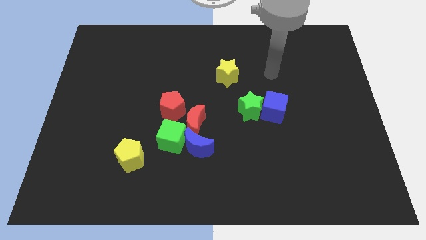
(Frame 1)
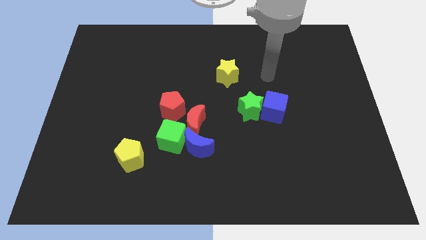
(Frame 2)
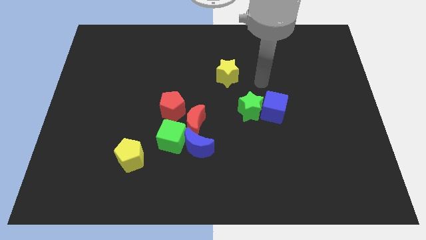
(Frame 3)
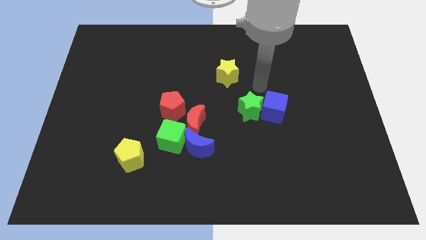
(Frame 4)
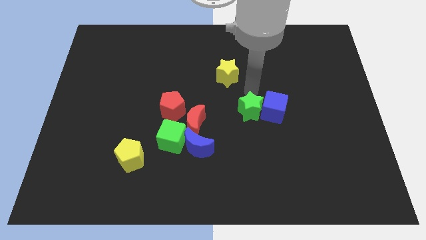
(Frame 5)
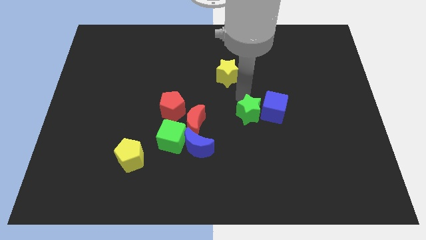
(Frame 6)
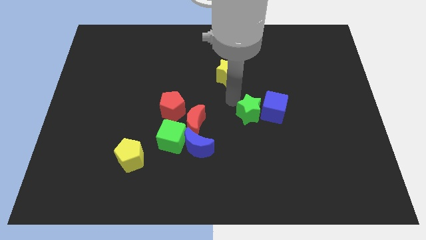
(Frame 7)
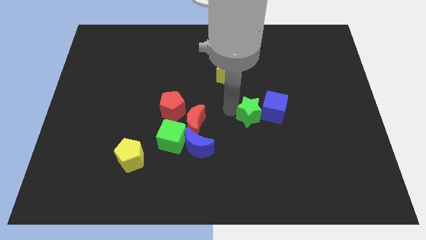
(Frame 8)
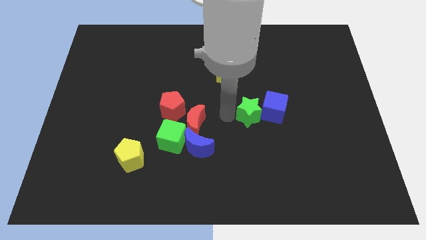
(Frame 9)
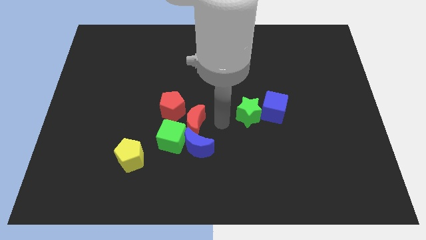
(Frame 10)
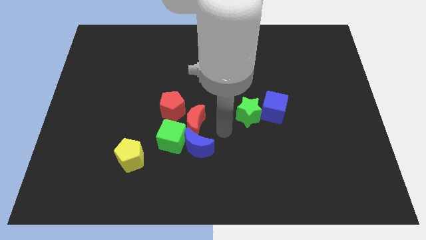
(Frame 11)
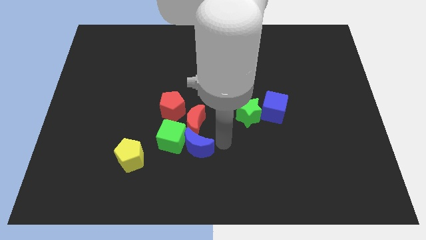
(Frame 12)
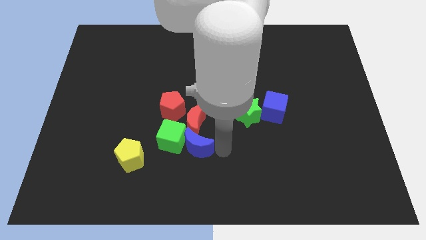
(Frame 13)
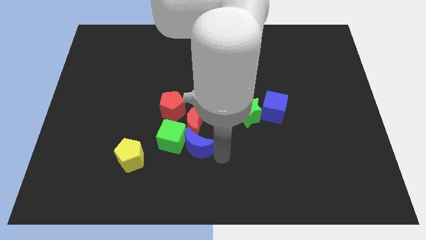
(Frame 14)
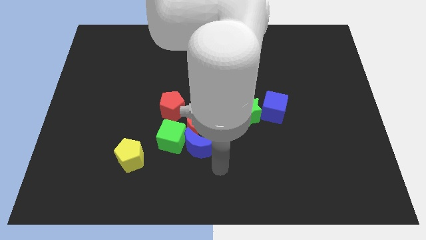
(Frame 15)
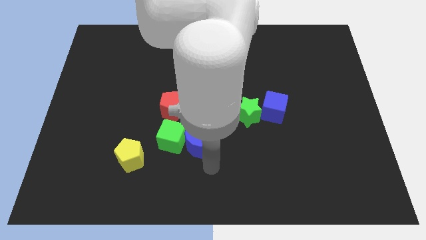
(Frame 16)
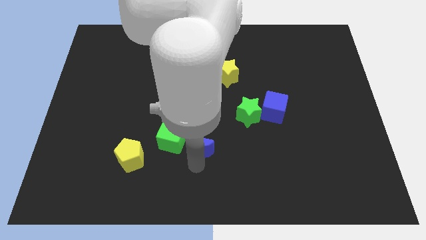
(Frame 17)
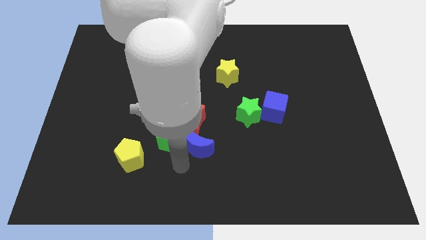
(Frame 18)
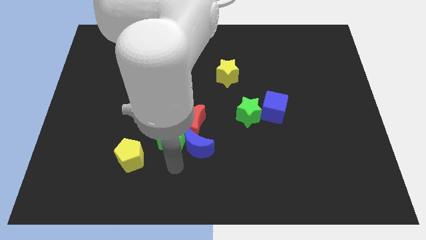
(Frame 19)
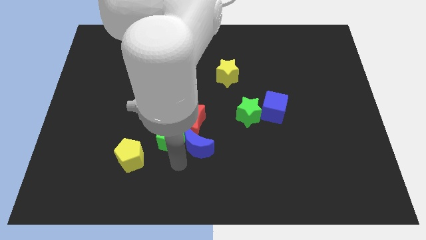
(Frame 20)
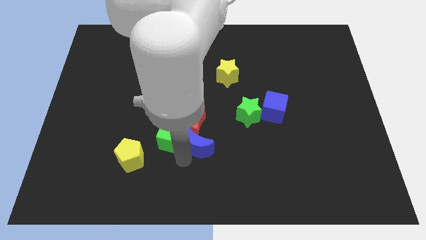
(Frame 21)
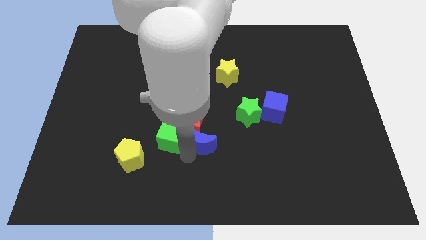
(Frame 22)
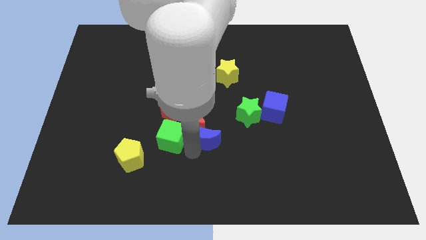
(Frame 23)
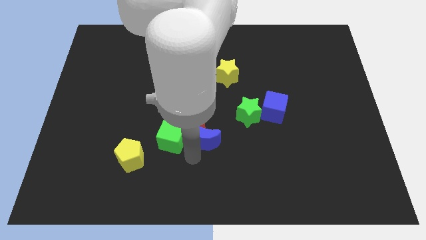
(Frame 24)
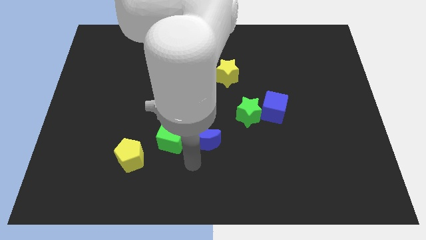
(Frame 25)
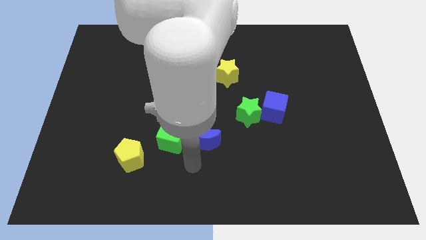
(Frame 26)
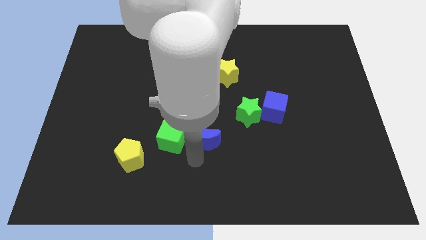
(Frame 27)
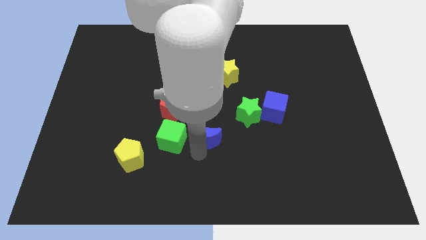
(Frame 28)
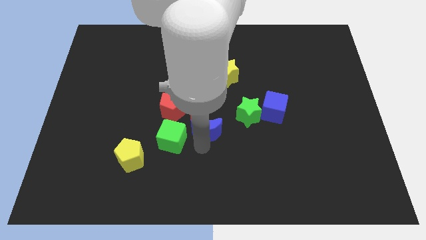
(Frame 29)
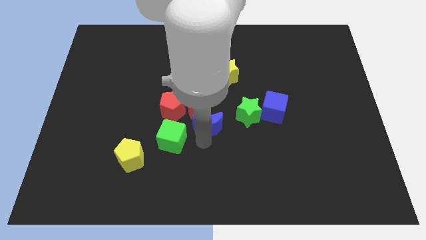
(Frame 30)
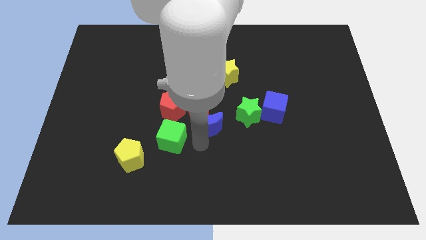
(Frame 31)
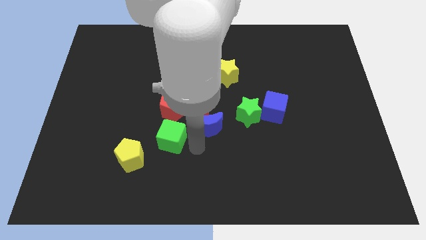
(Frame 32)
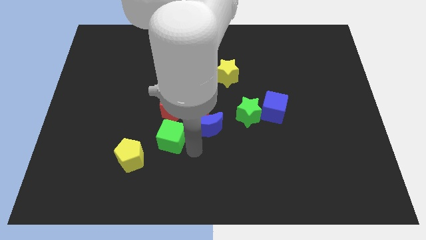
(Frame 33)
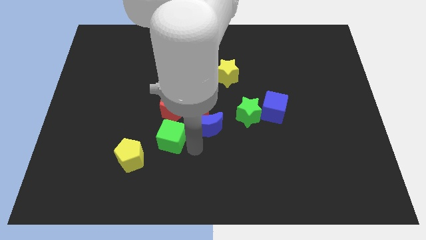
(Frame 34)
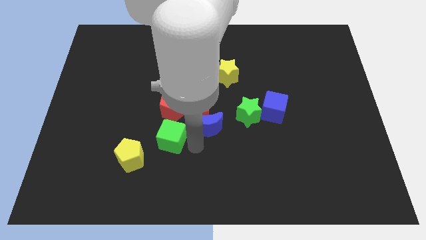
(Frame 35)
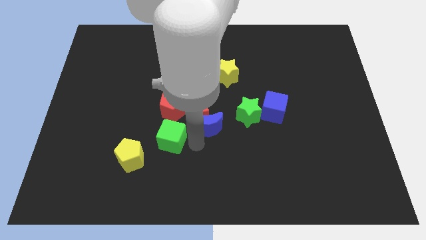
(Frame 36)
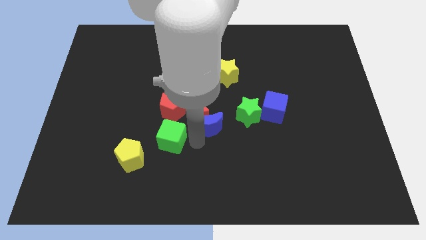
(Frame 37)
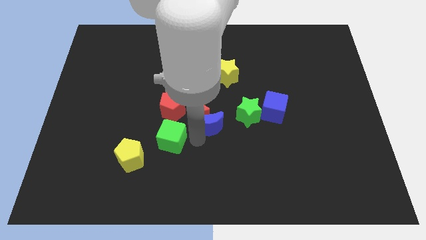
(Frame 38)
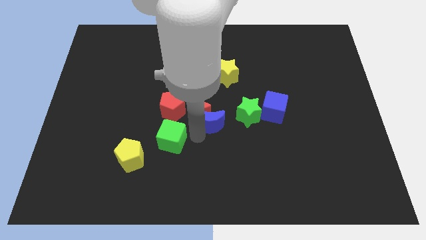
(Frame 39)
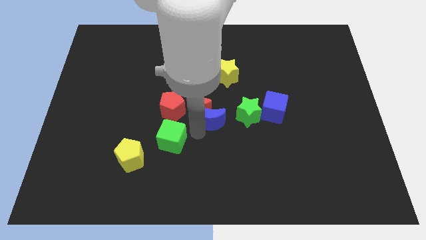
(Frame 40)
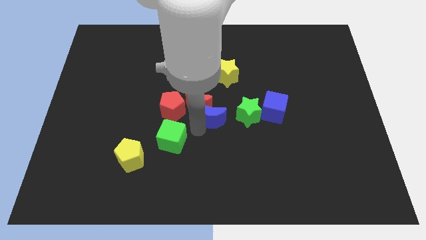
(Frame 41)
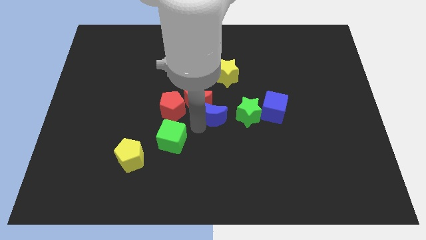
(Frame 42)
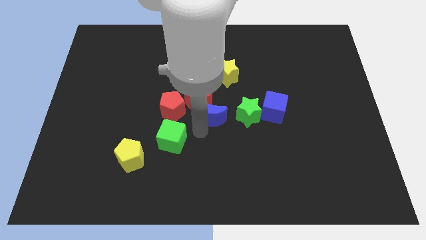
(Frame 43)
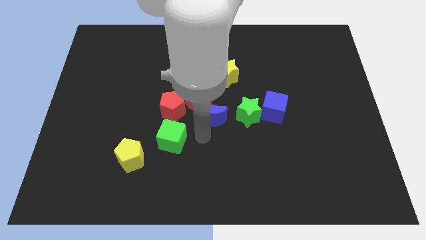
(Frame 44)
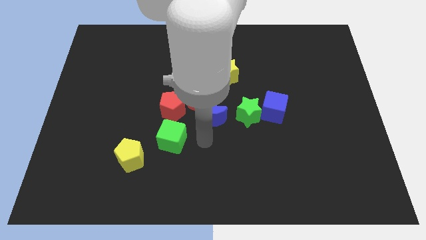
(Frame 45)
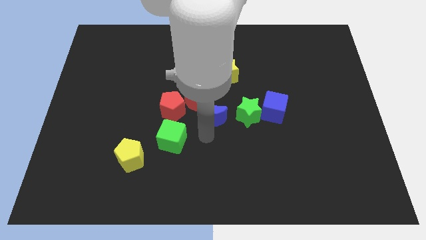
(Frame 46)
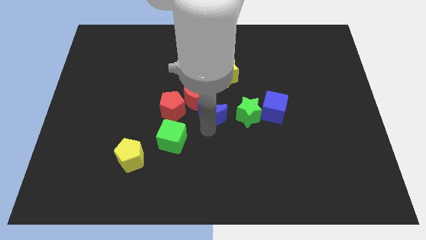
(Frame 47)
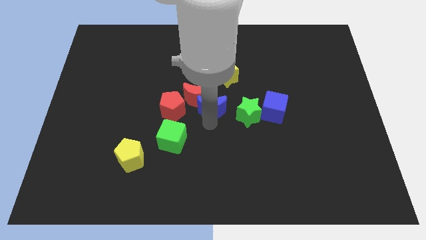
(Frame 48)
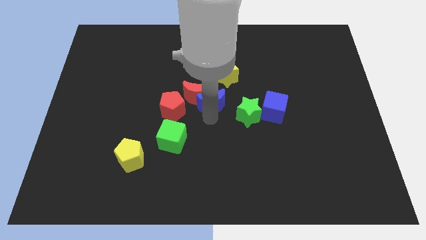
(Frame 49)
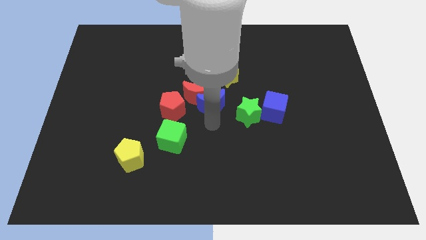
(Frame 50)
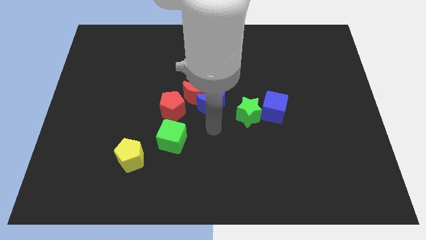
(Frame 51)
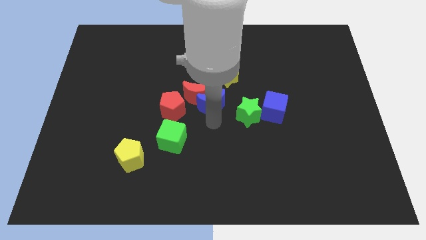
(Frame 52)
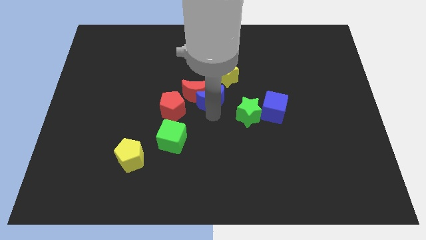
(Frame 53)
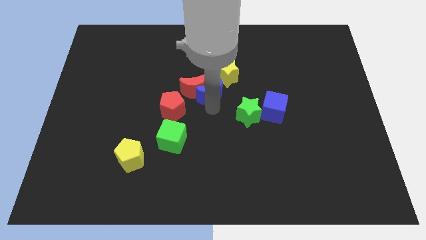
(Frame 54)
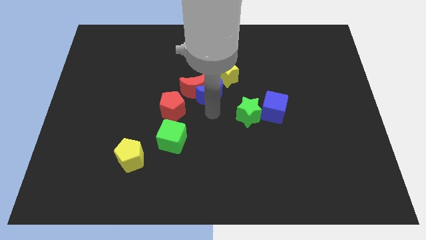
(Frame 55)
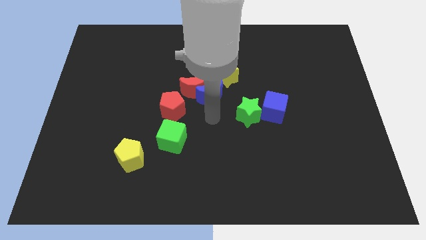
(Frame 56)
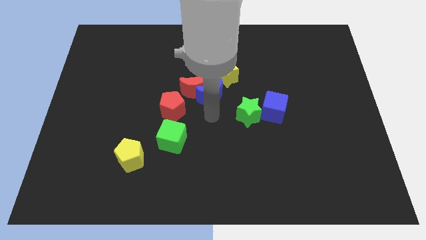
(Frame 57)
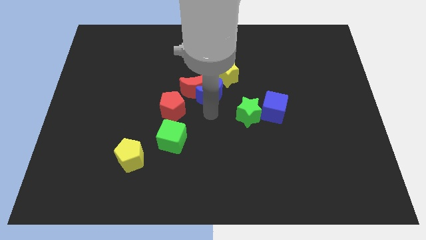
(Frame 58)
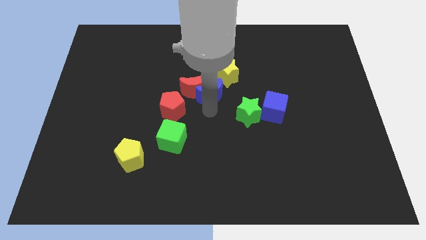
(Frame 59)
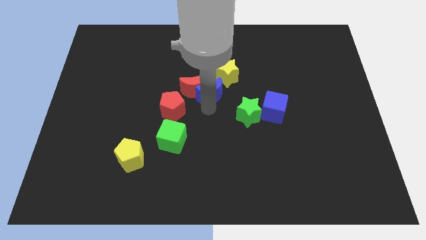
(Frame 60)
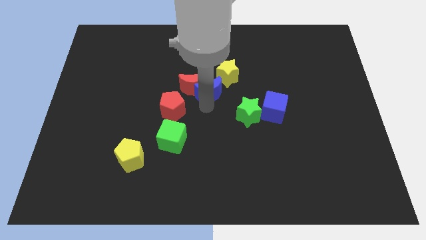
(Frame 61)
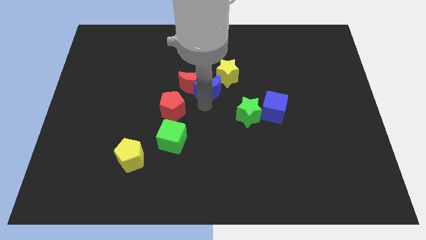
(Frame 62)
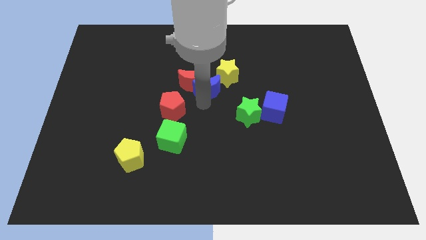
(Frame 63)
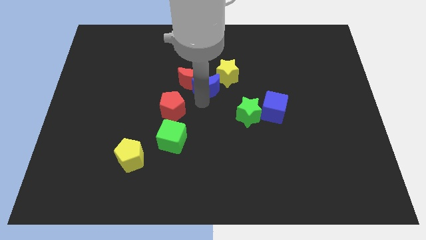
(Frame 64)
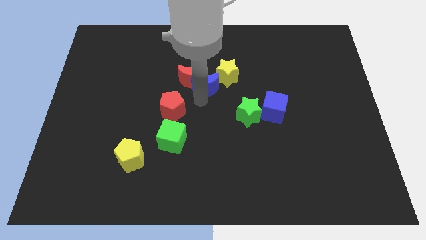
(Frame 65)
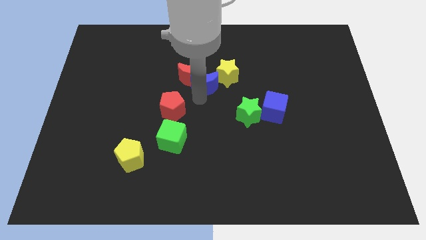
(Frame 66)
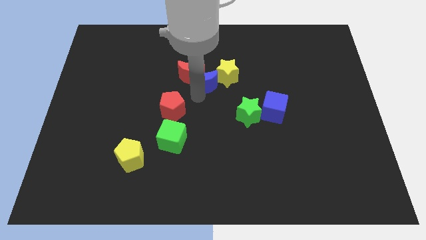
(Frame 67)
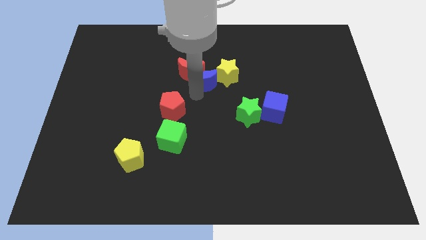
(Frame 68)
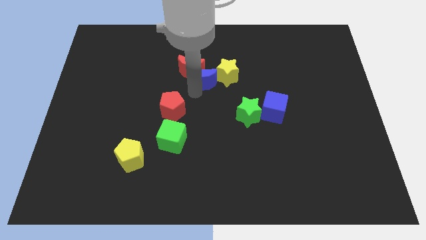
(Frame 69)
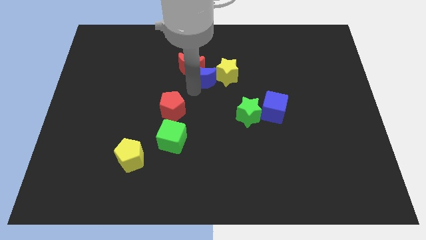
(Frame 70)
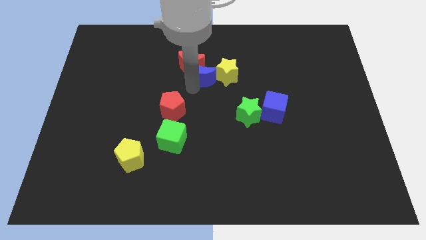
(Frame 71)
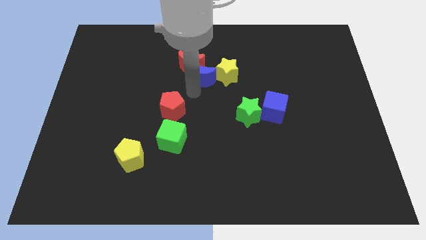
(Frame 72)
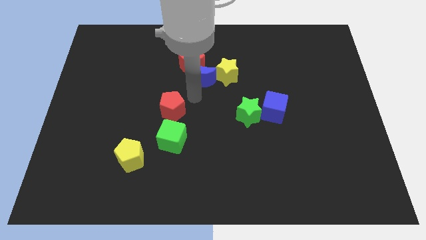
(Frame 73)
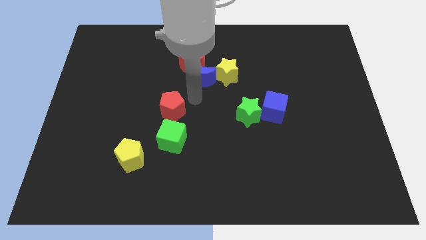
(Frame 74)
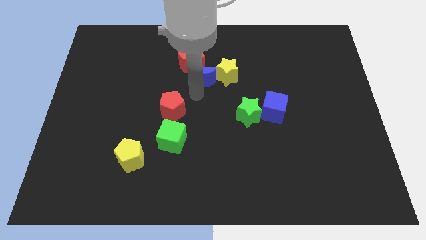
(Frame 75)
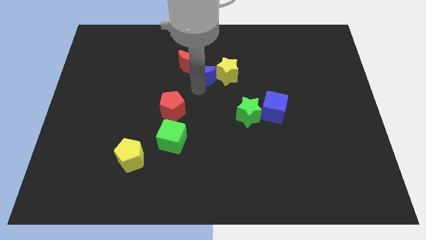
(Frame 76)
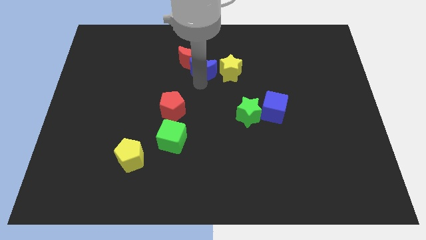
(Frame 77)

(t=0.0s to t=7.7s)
move the blue moon to the top left of the yellow star

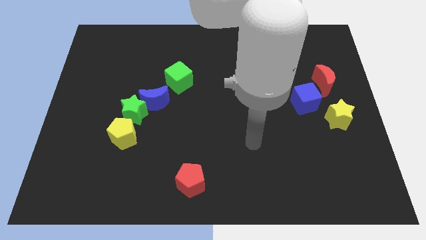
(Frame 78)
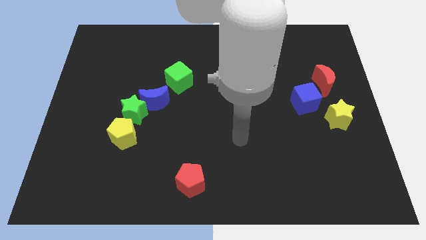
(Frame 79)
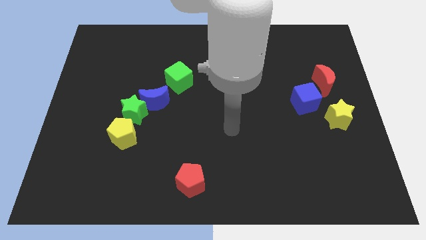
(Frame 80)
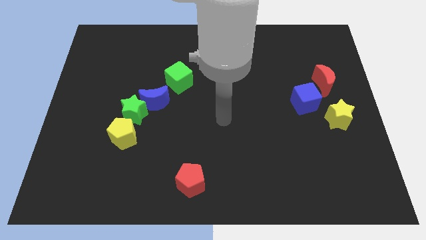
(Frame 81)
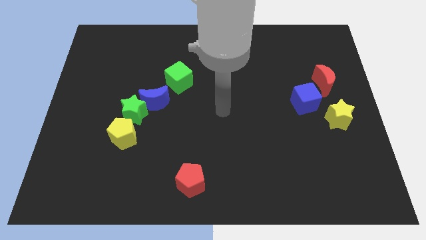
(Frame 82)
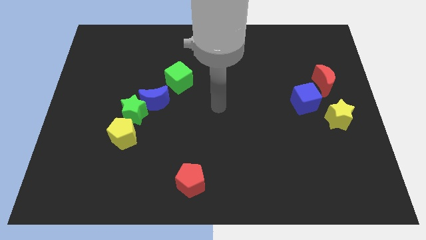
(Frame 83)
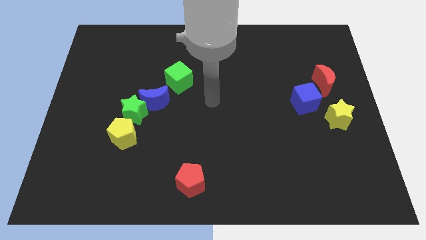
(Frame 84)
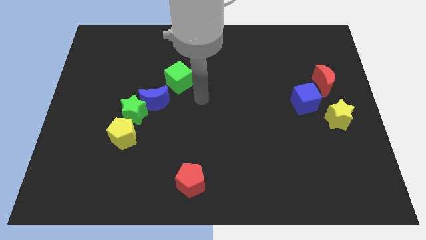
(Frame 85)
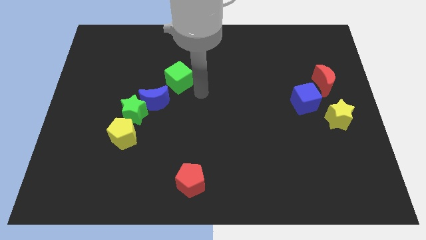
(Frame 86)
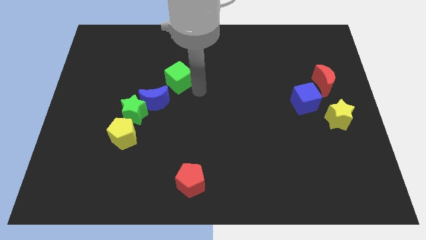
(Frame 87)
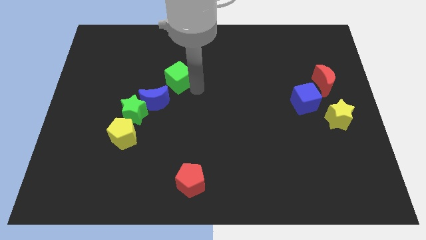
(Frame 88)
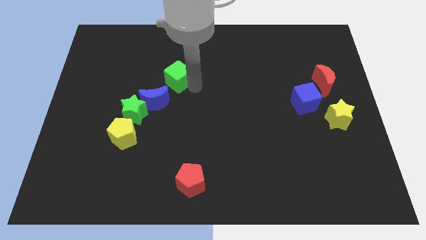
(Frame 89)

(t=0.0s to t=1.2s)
put the green cube to the top of the blue moon
